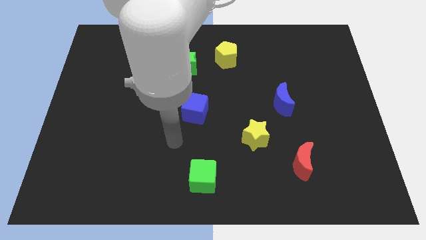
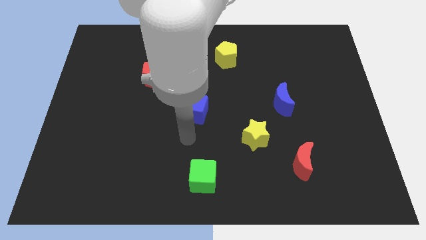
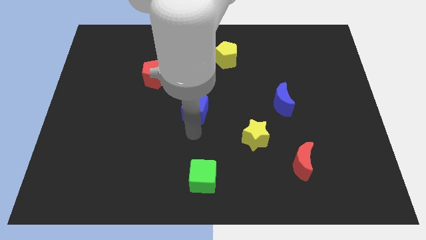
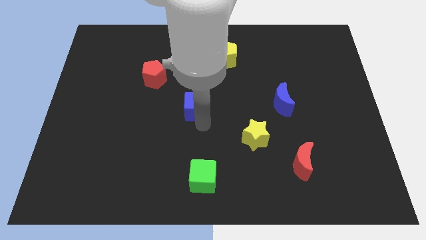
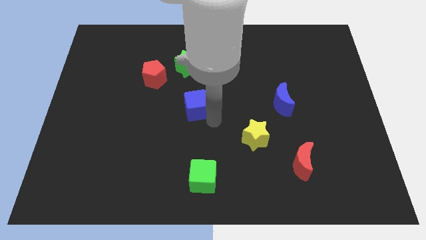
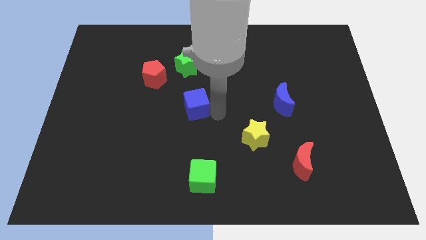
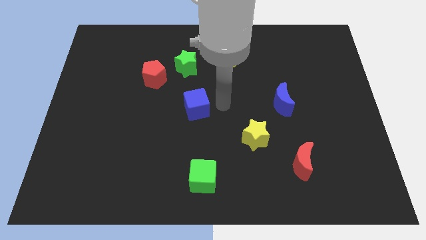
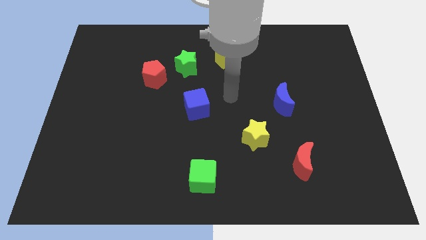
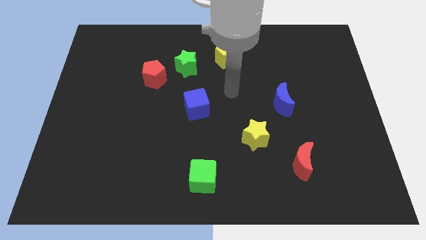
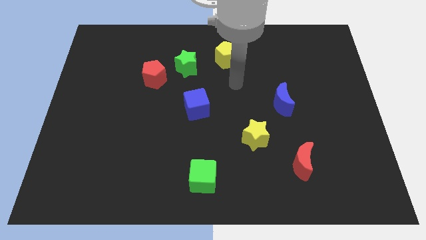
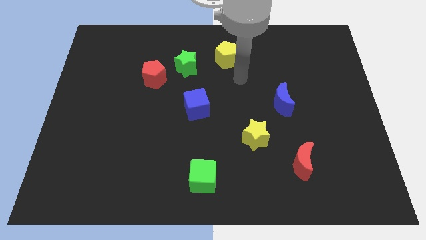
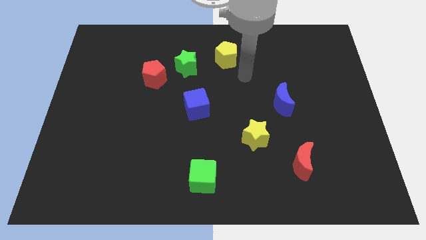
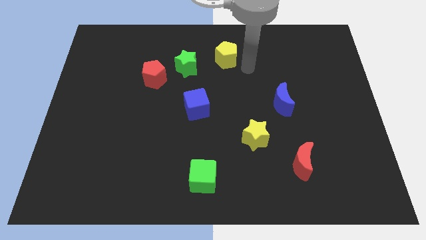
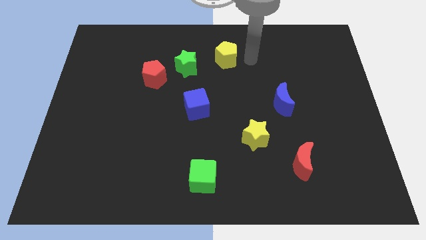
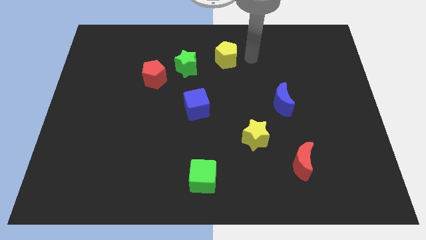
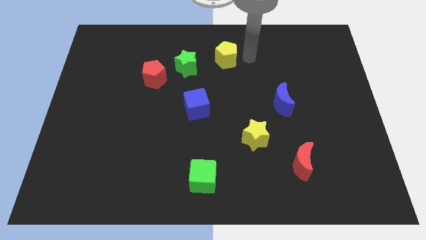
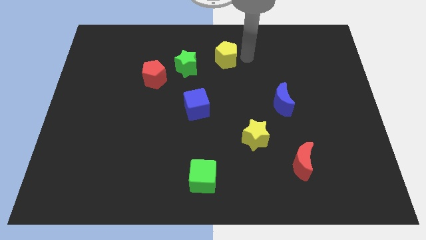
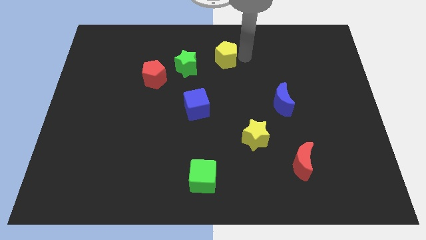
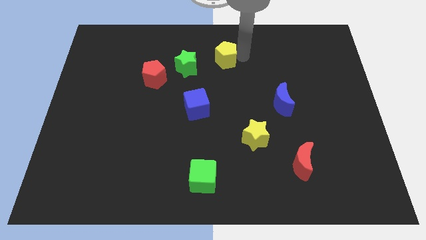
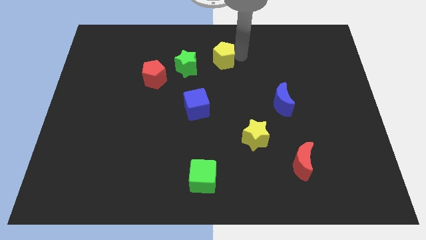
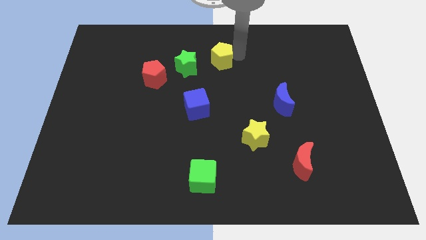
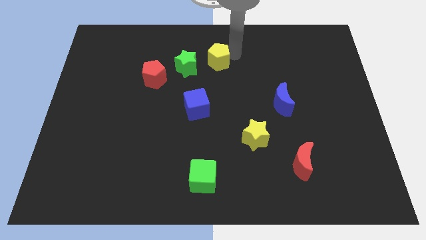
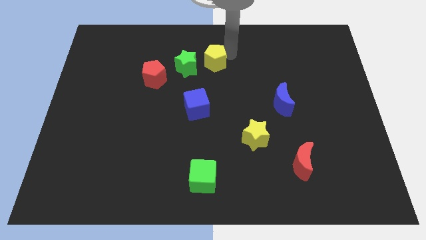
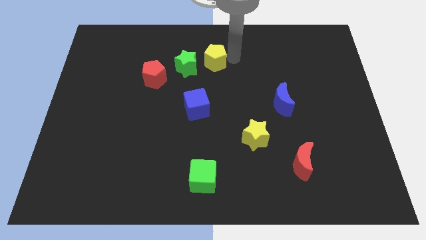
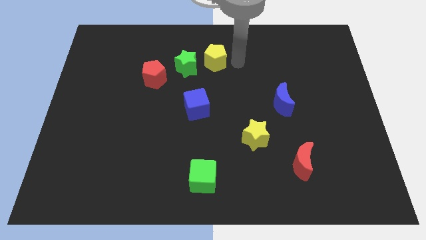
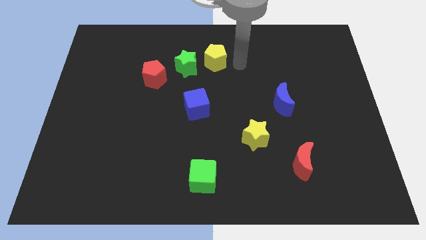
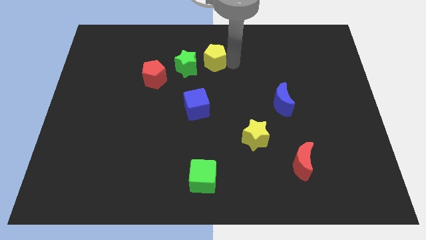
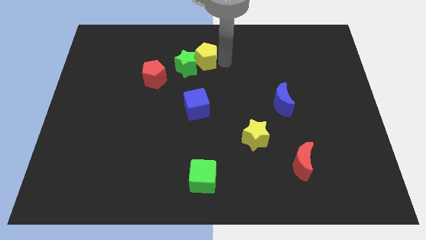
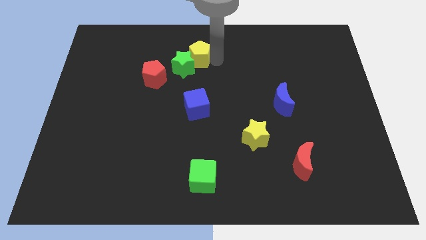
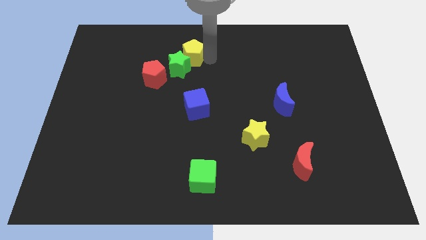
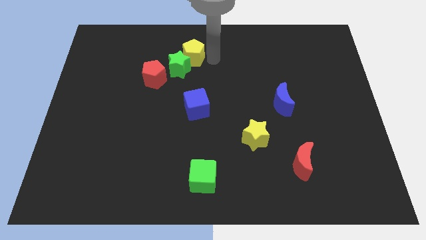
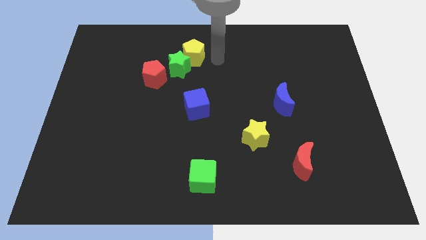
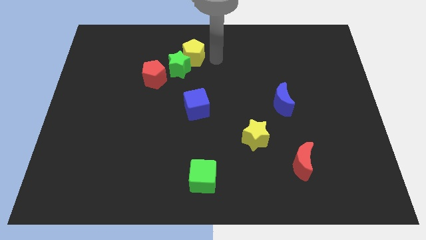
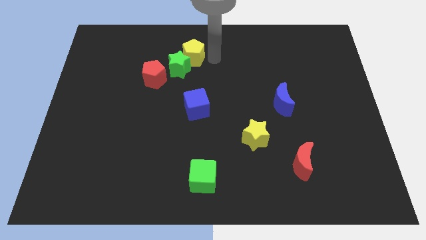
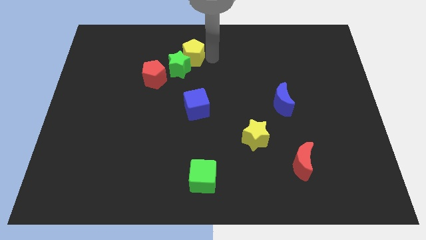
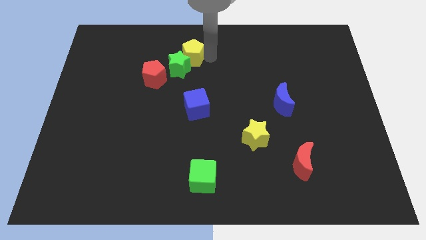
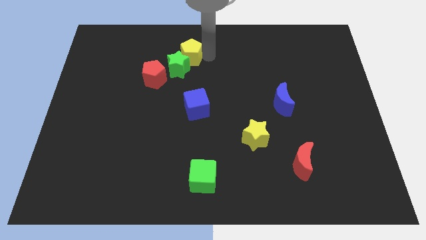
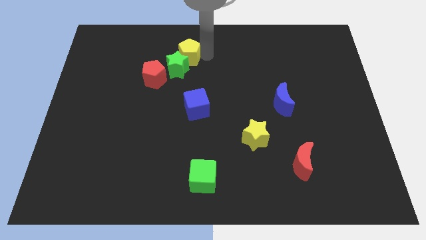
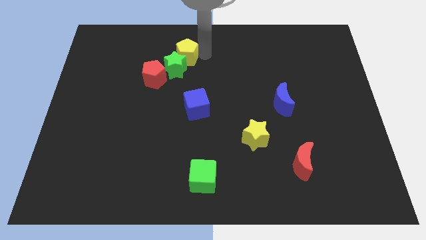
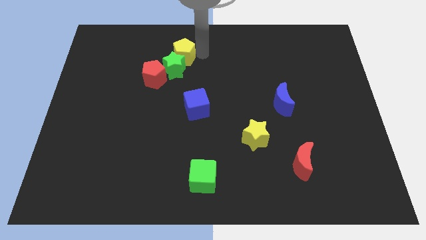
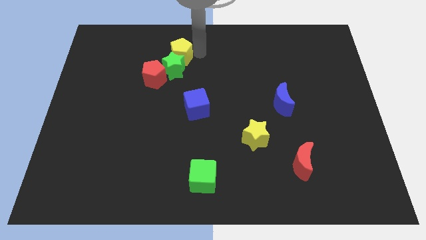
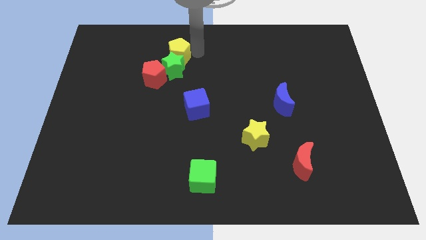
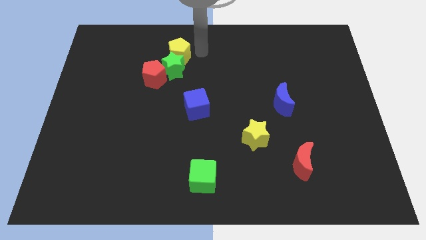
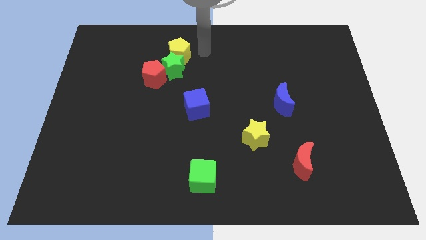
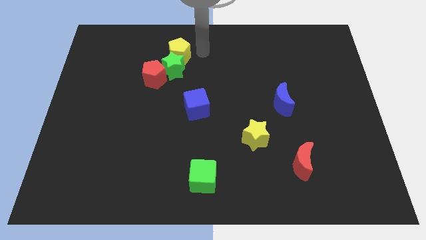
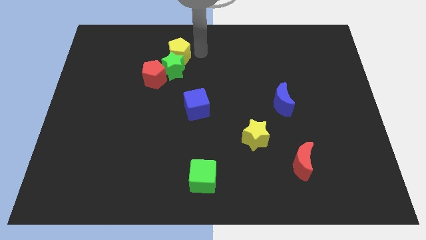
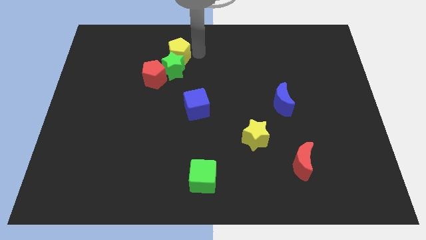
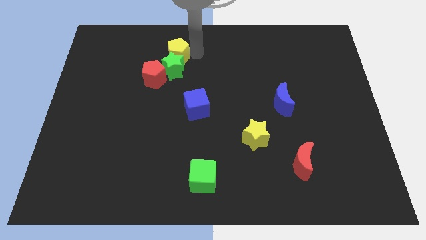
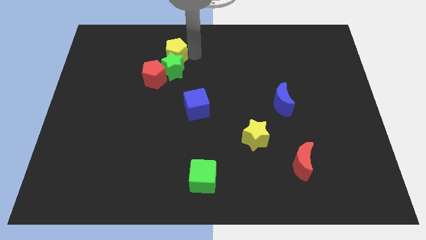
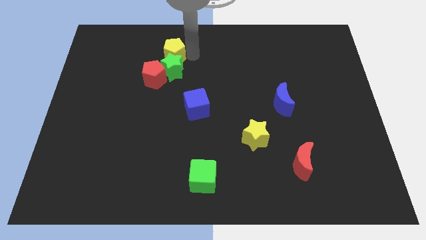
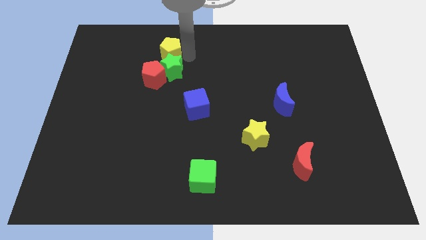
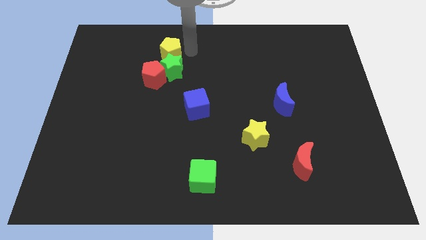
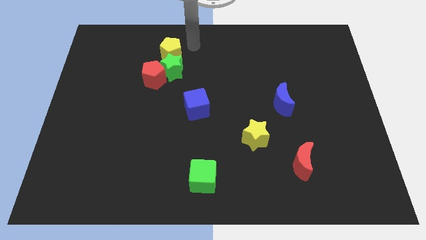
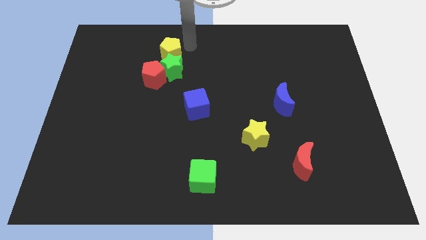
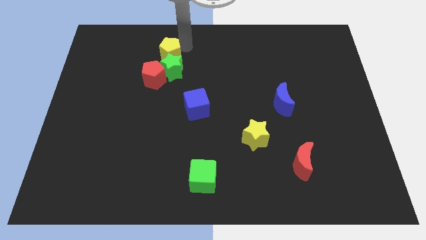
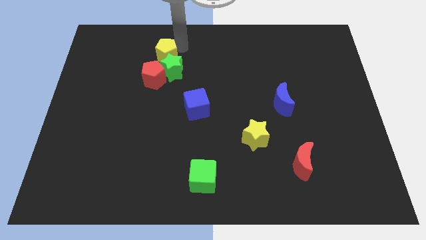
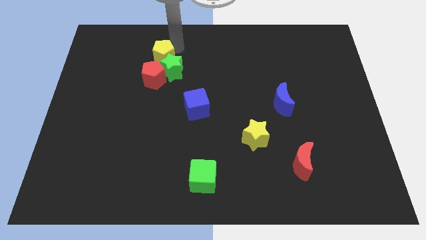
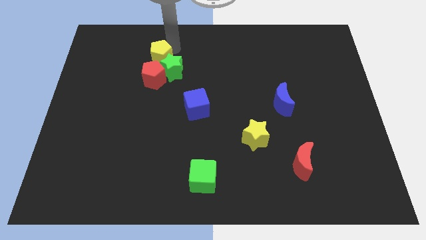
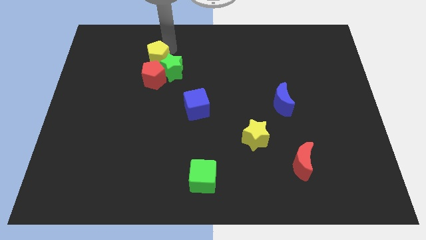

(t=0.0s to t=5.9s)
slide the yellow pentagon left of the green star

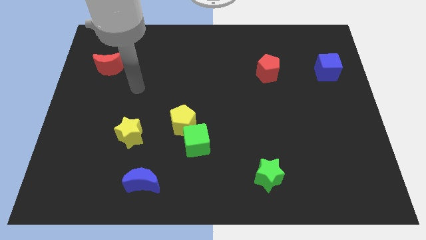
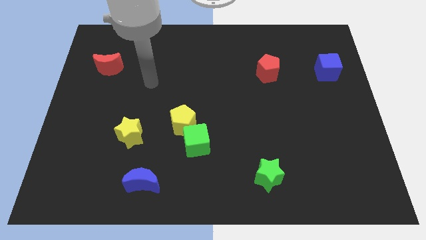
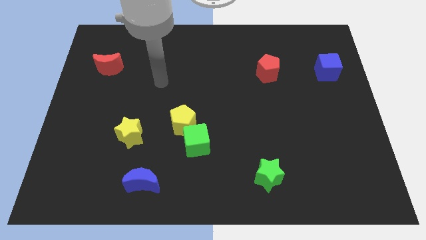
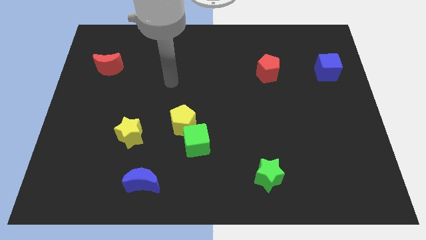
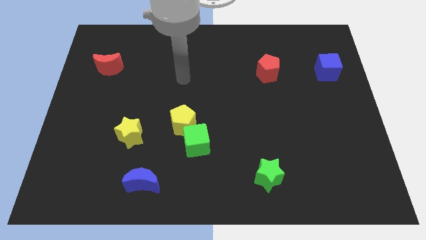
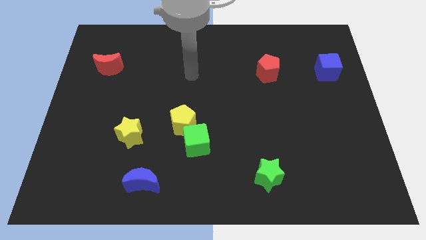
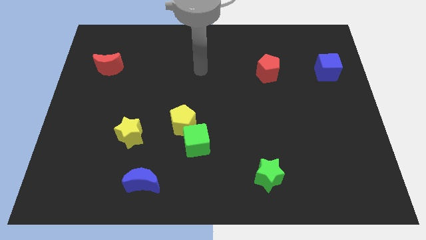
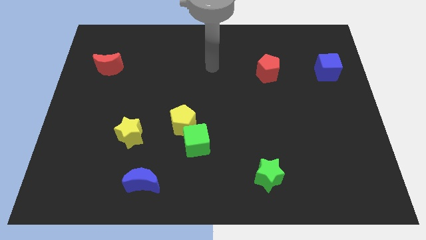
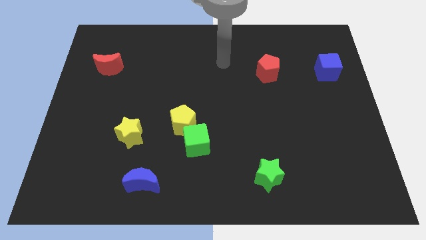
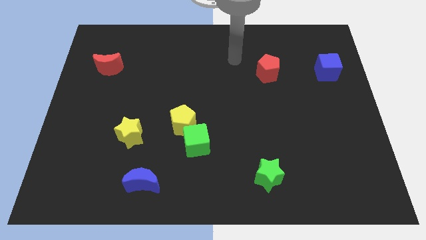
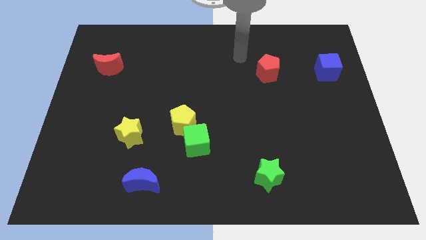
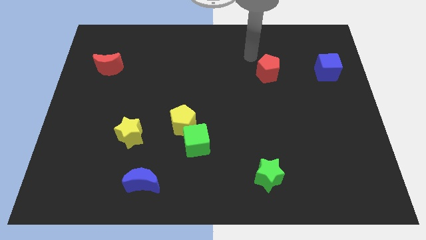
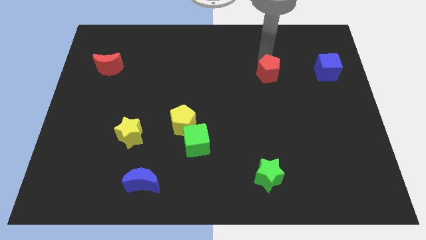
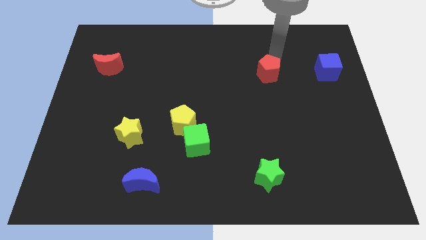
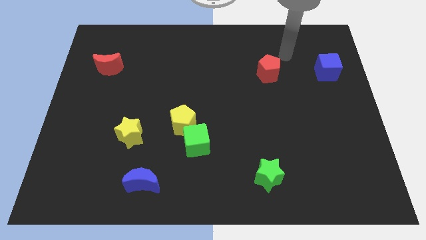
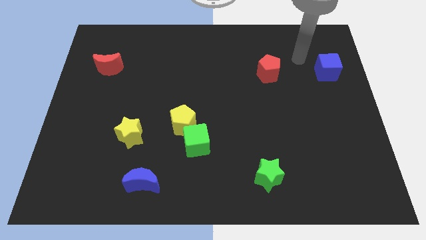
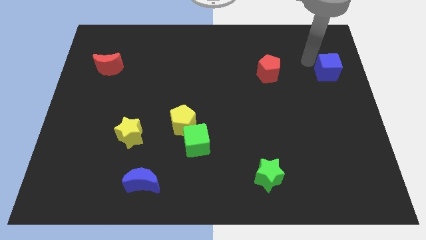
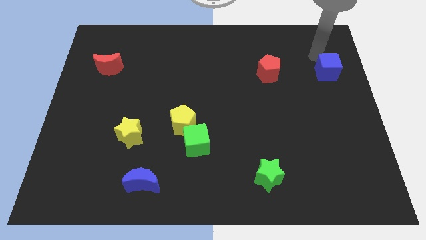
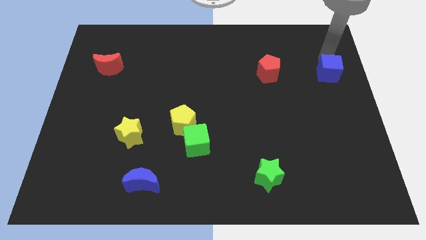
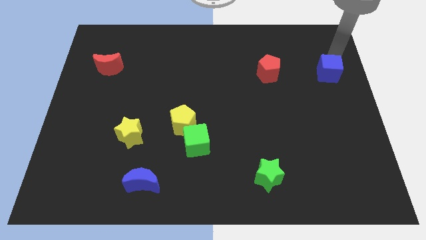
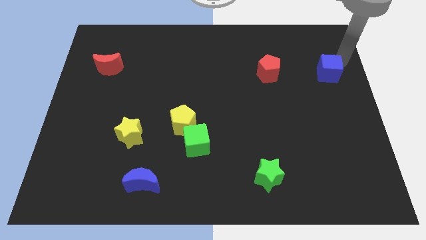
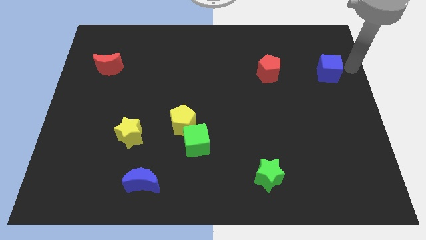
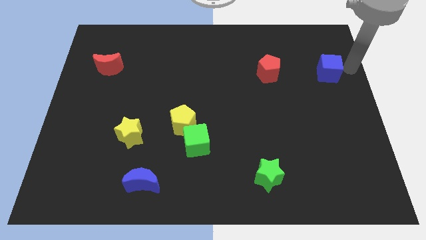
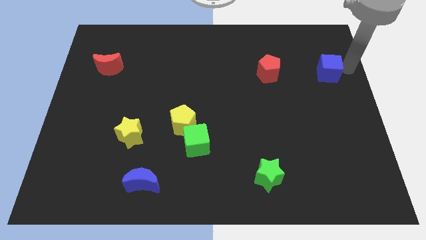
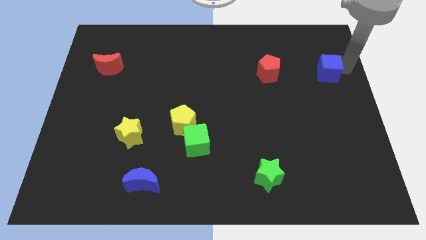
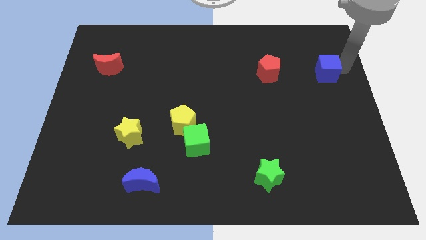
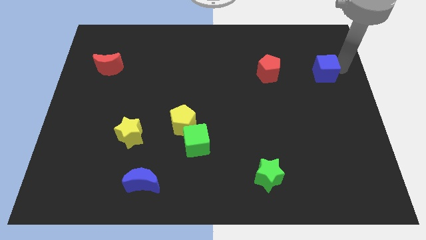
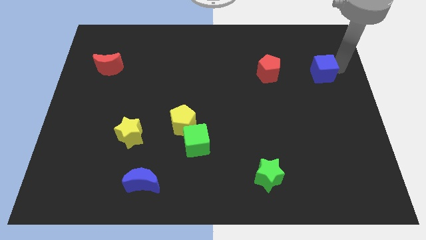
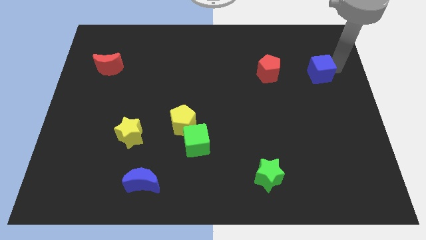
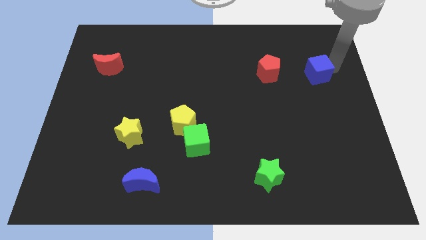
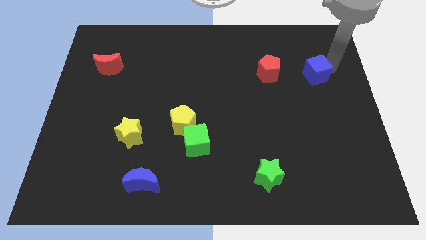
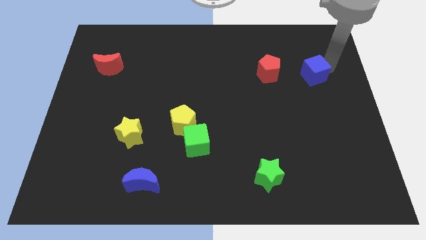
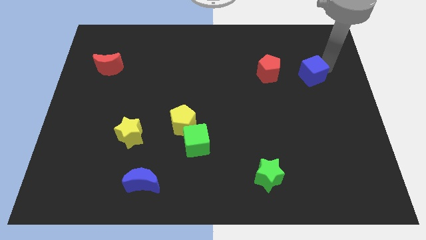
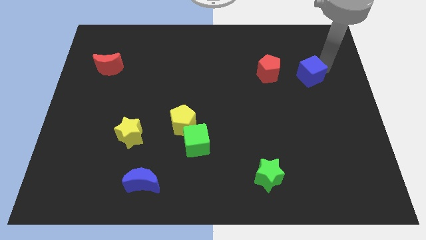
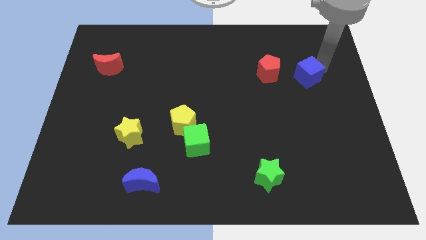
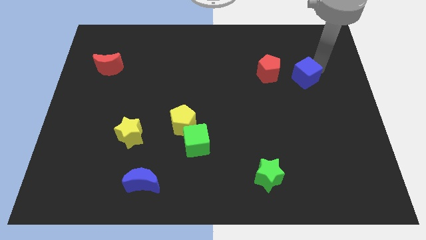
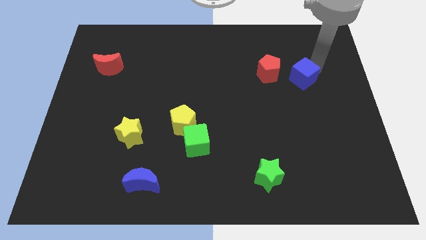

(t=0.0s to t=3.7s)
move the blue cube diagonally down and to the right of the red pentagon
